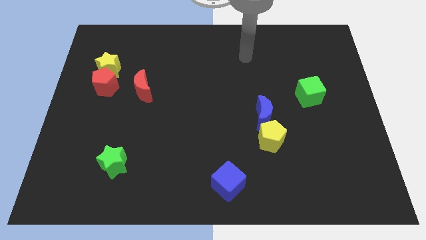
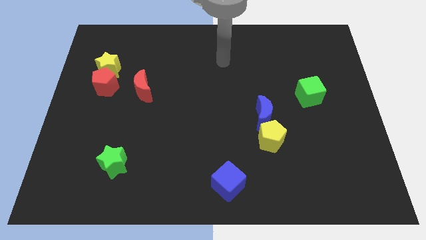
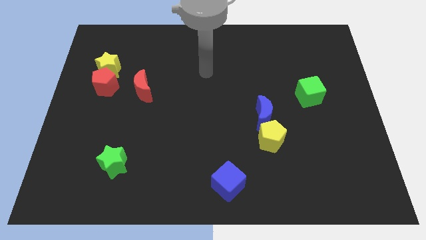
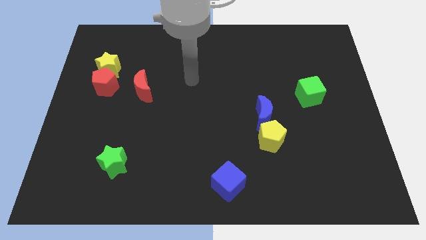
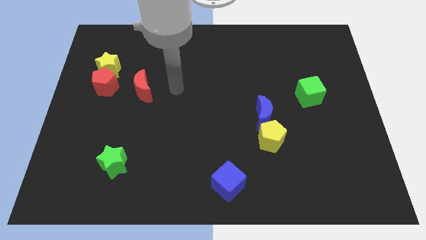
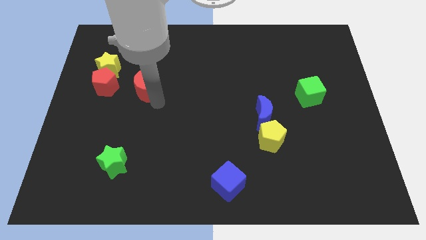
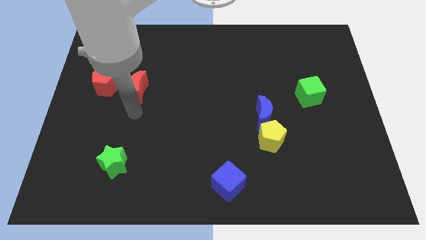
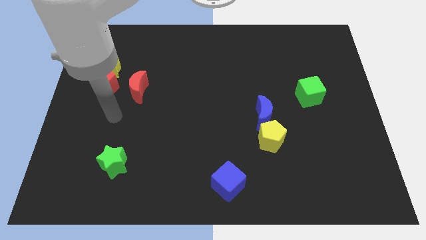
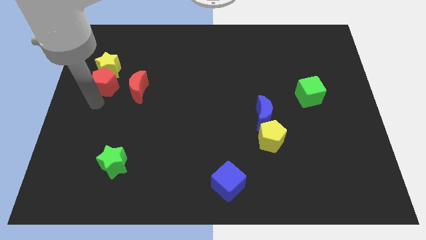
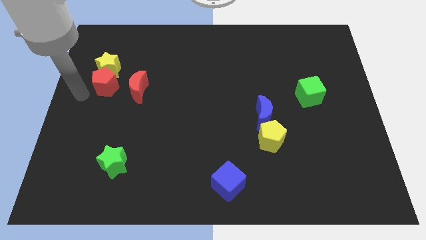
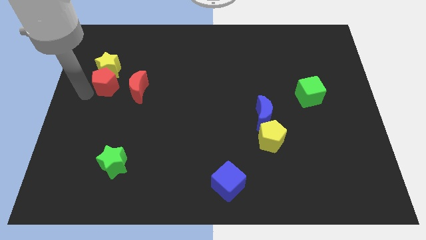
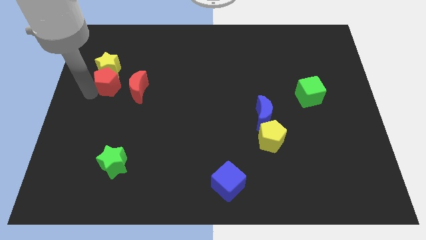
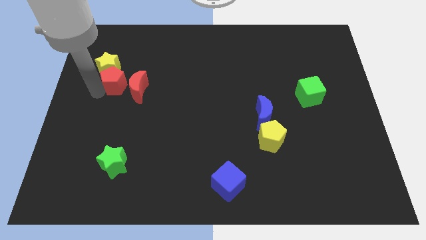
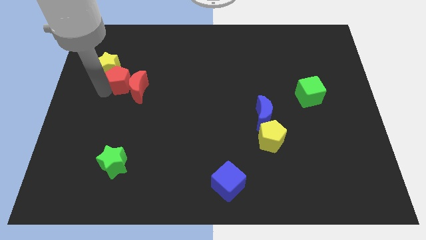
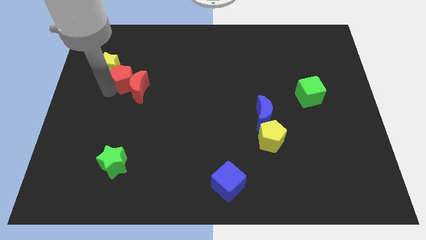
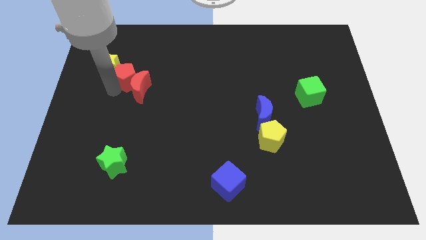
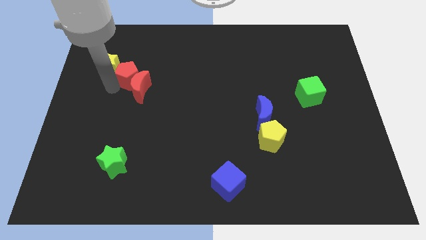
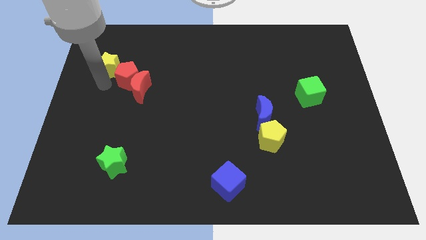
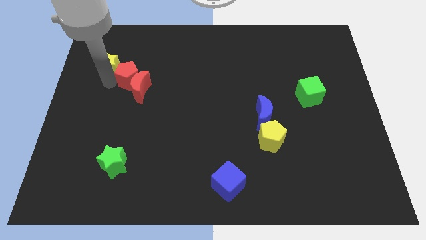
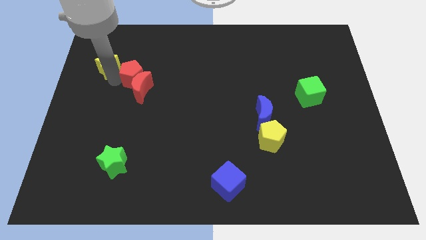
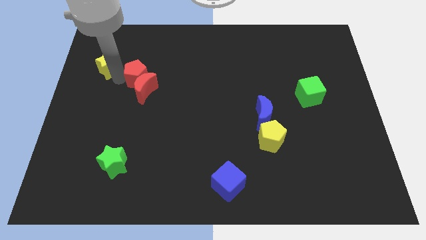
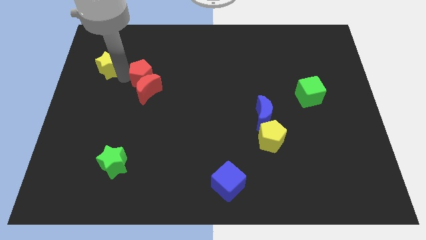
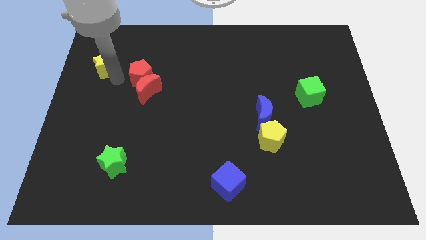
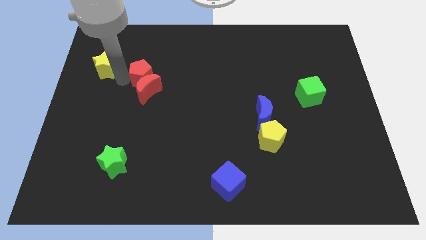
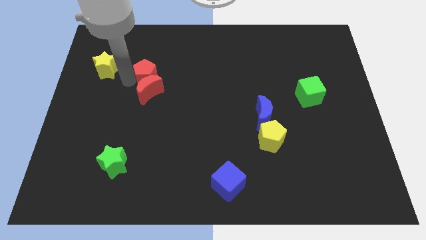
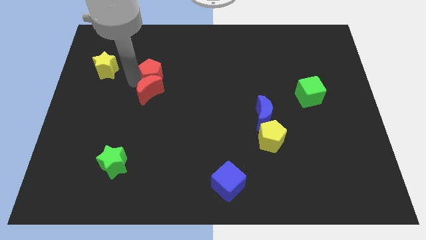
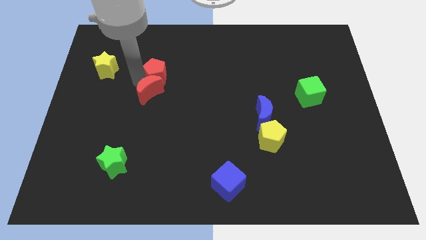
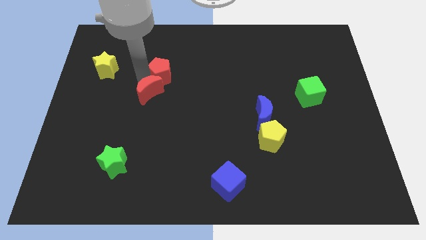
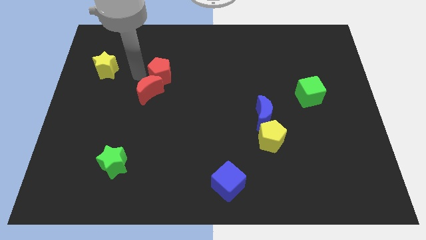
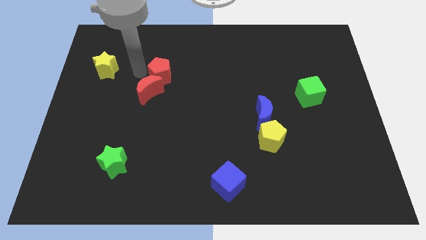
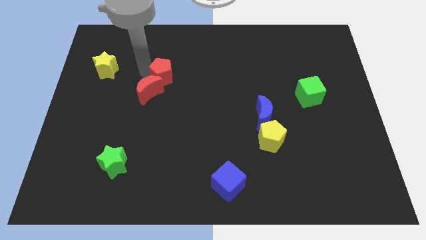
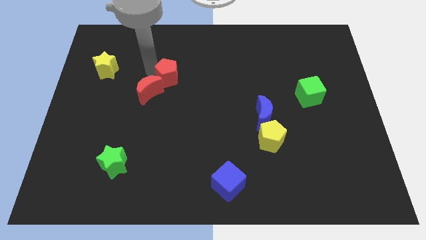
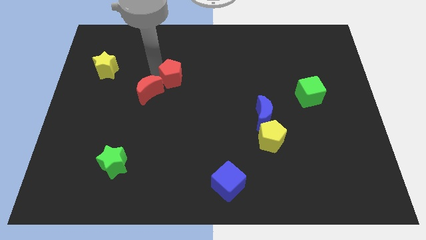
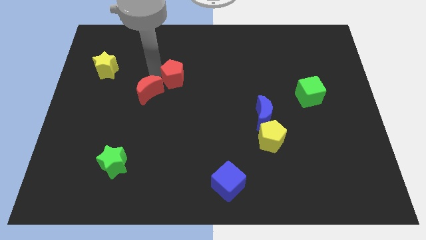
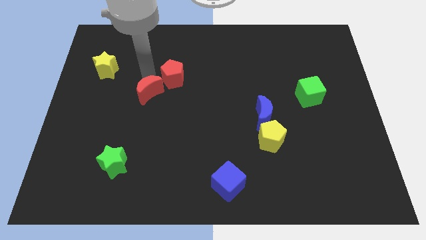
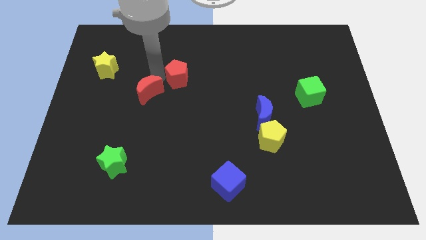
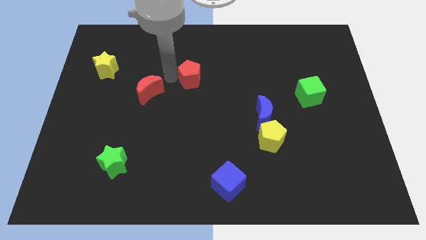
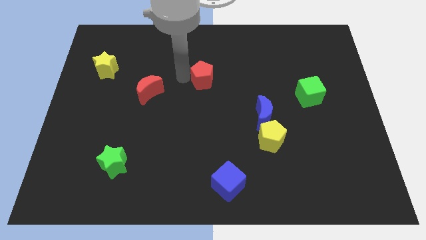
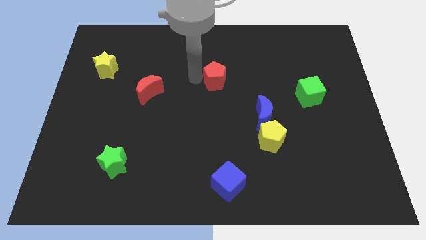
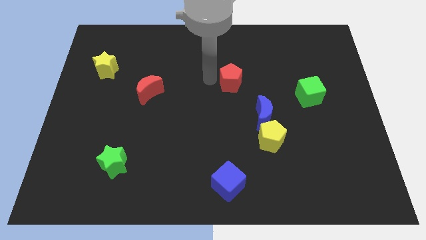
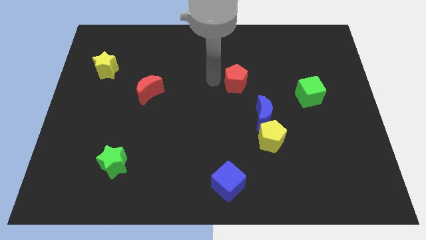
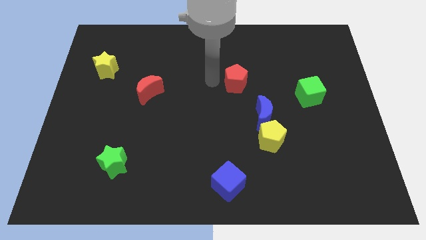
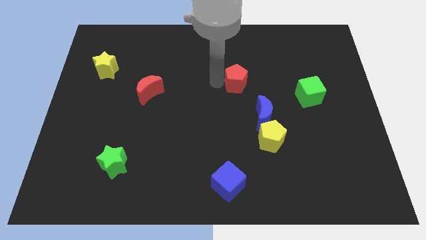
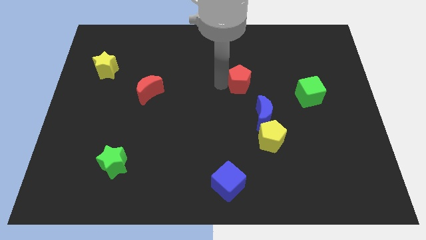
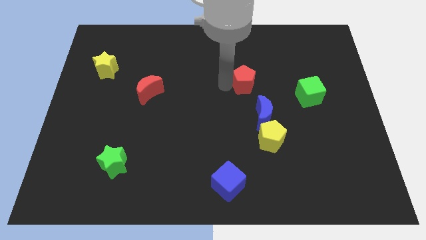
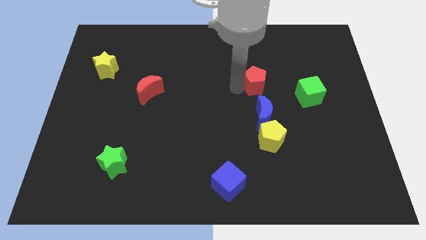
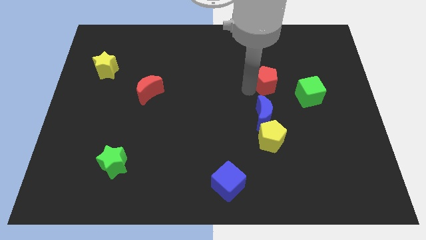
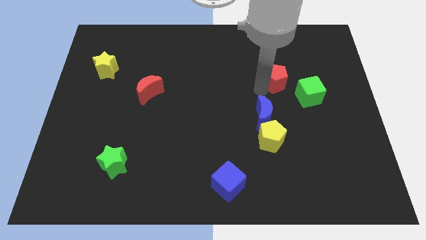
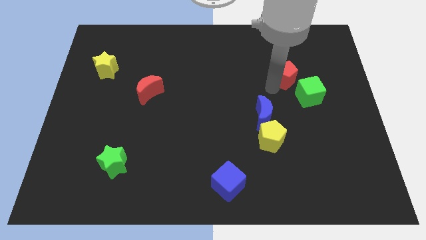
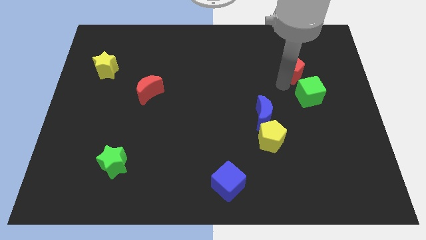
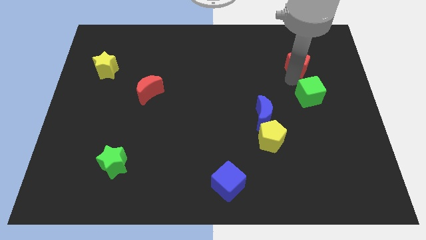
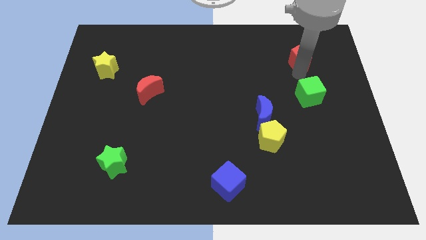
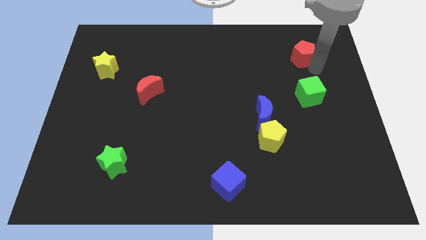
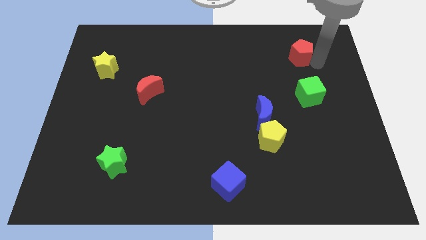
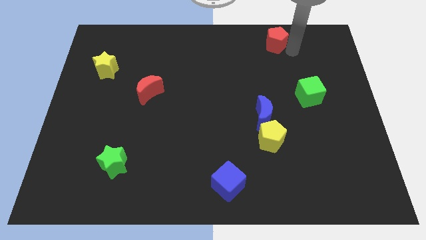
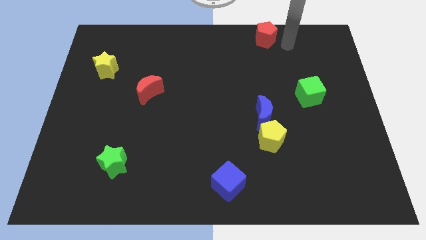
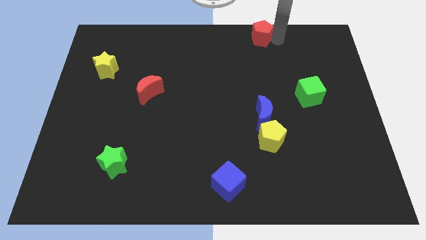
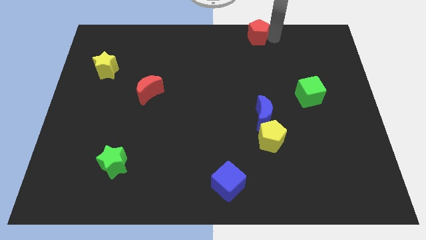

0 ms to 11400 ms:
put the red pentagon to the towards your base

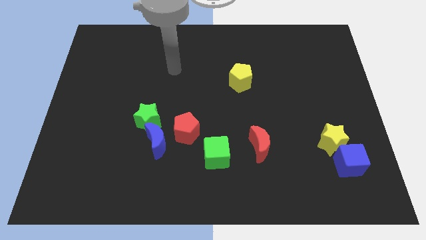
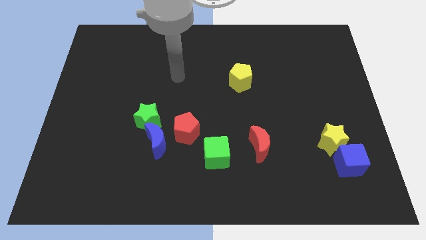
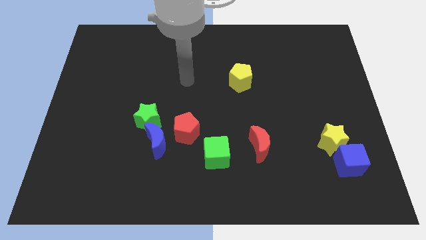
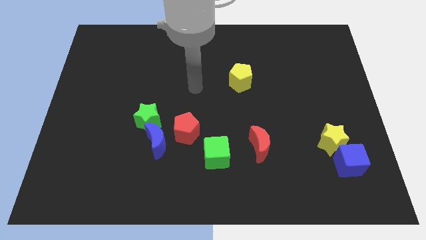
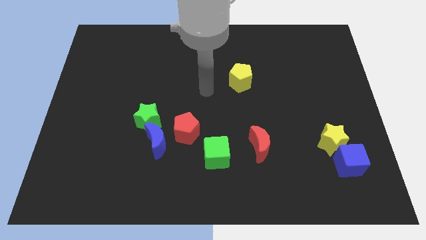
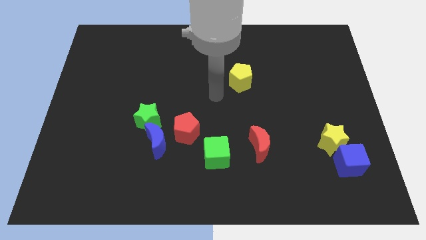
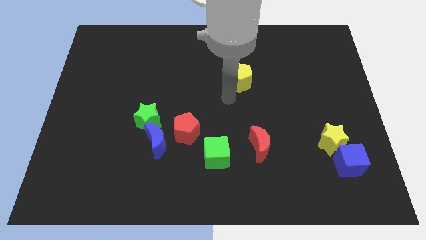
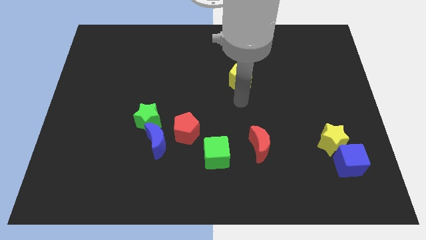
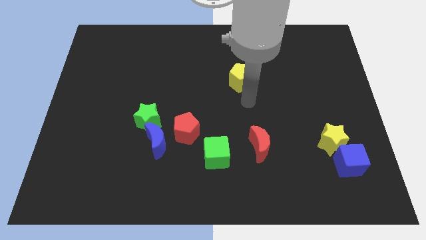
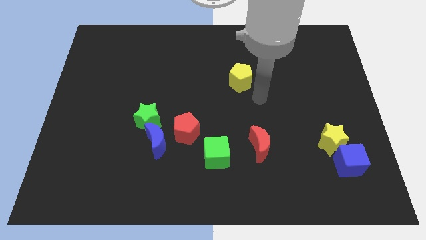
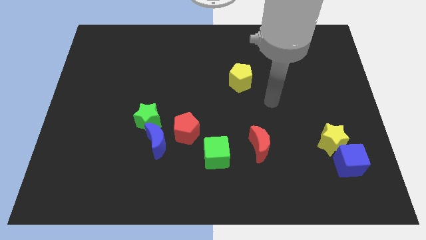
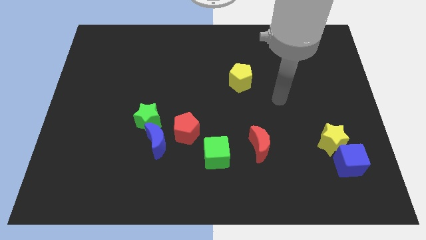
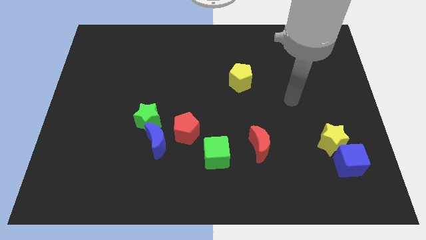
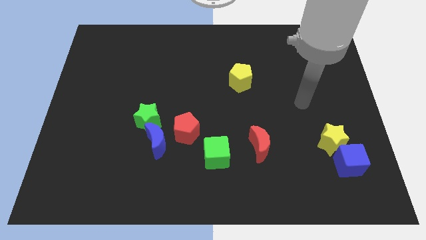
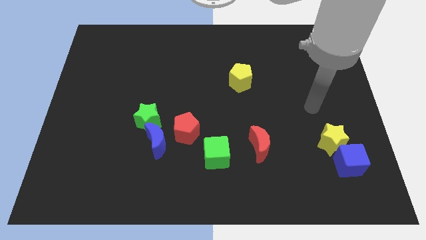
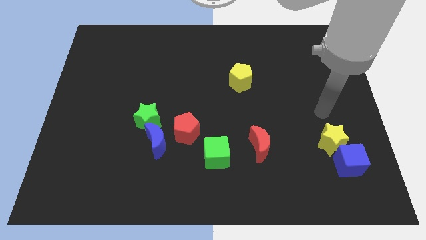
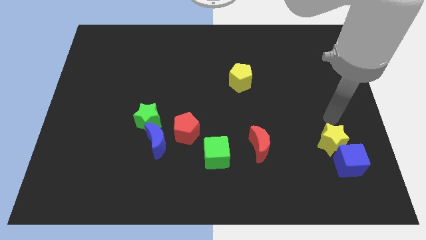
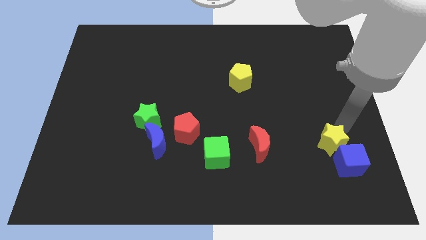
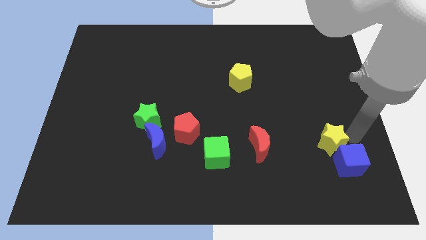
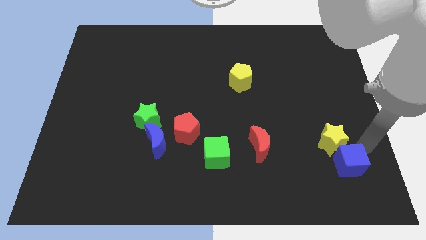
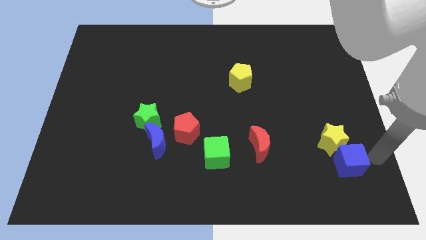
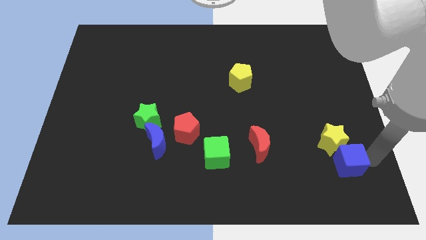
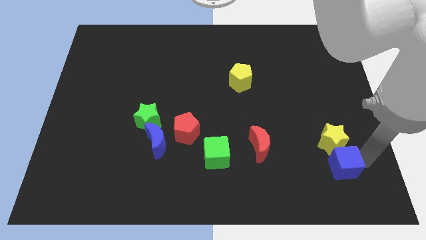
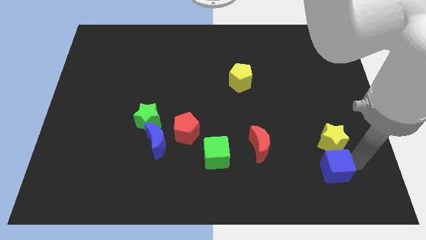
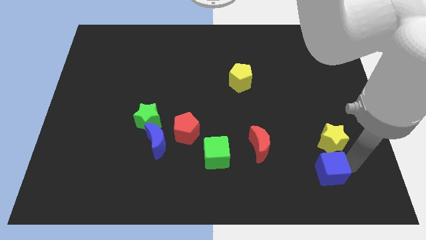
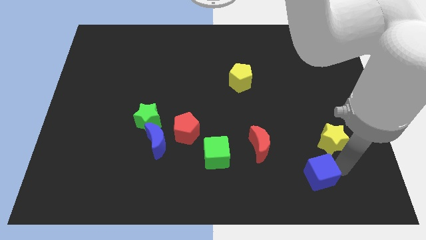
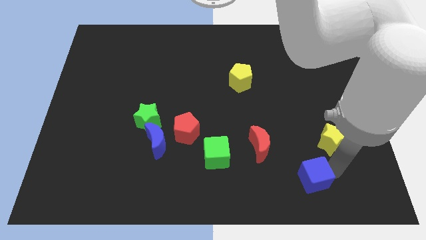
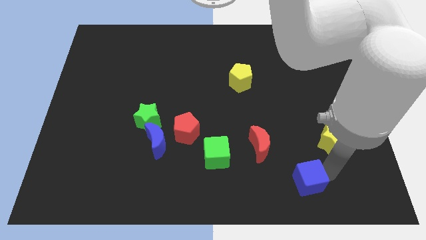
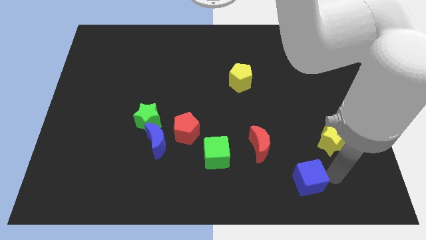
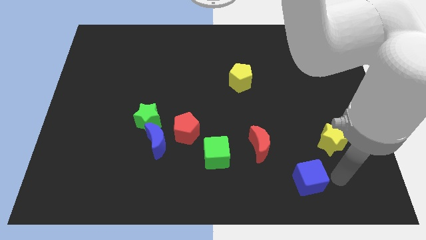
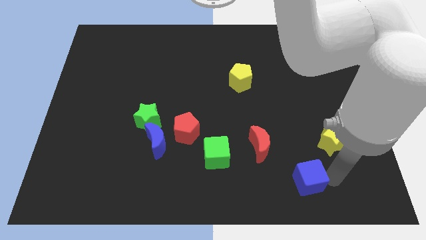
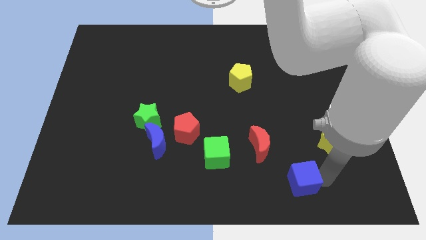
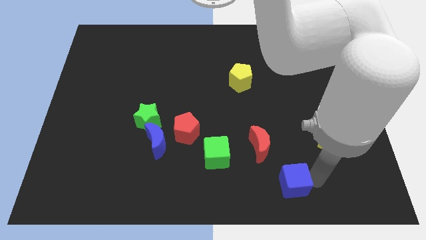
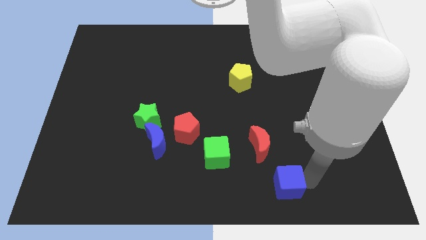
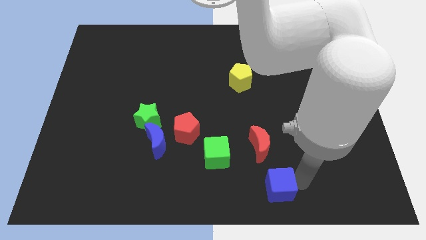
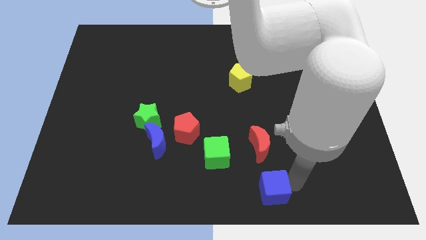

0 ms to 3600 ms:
put the blue cube to the bottom
